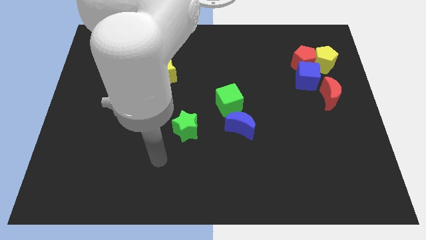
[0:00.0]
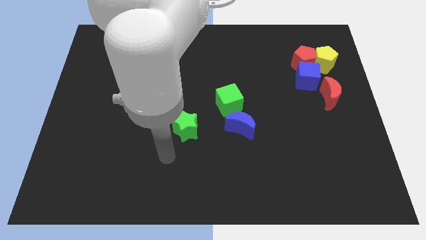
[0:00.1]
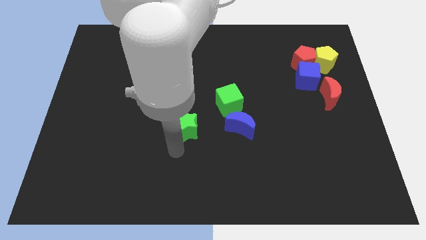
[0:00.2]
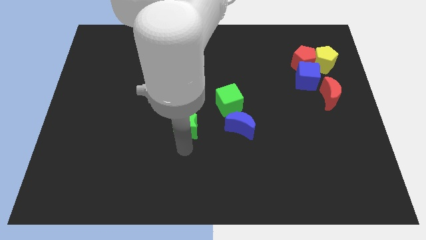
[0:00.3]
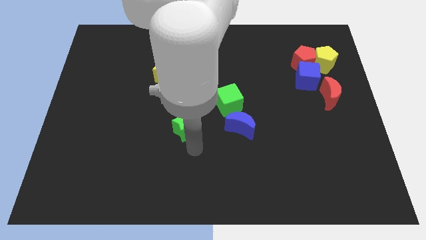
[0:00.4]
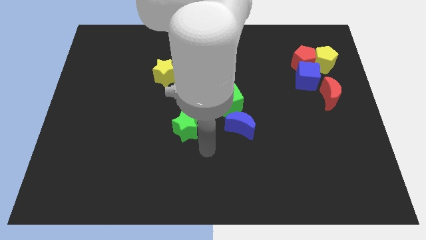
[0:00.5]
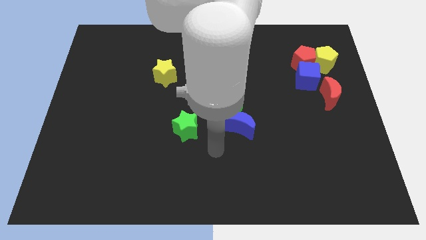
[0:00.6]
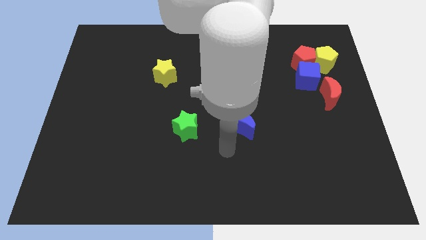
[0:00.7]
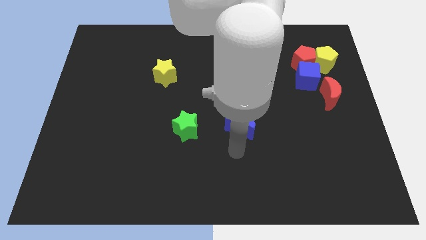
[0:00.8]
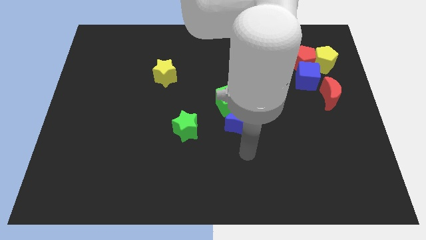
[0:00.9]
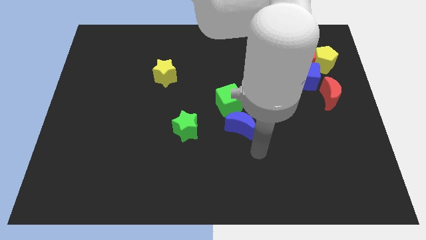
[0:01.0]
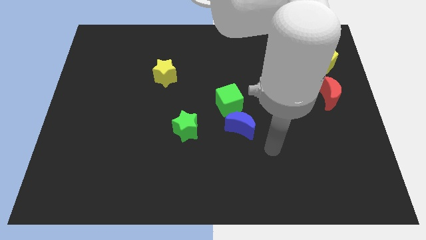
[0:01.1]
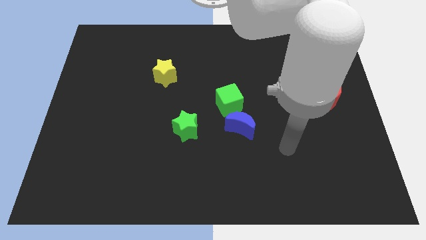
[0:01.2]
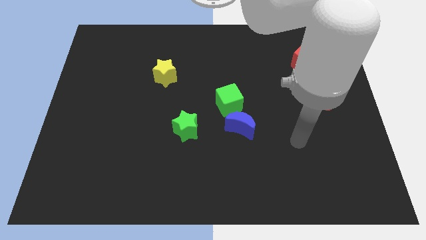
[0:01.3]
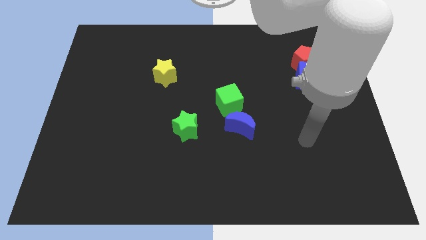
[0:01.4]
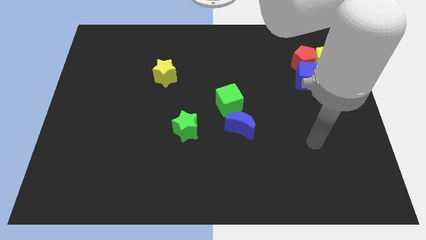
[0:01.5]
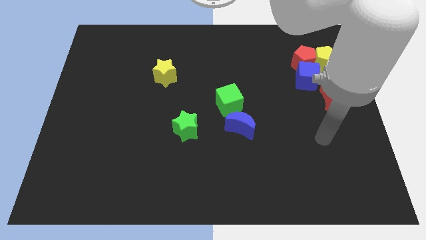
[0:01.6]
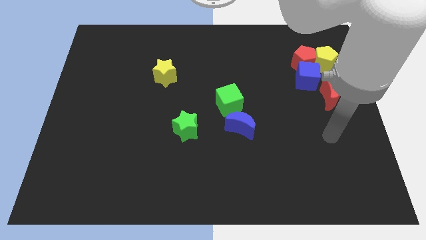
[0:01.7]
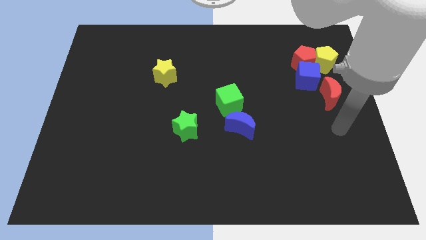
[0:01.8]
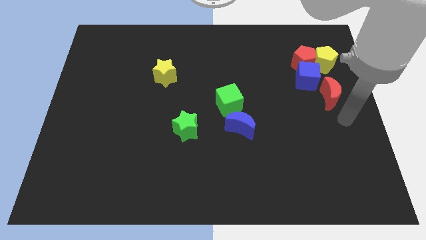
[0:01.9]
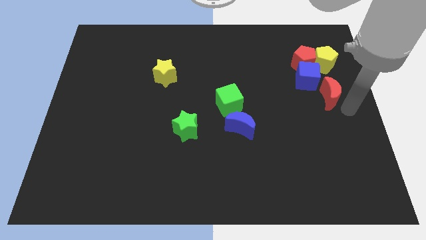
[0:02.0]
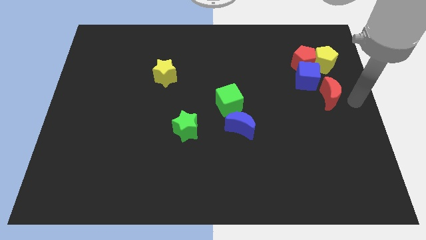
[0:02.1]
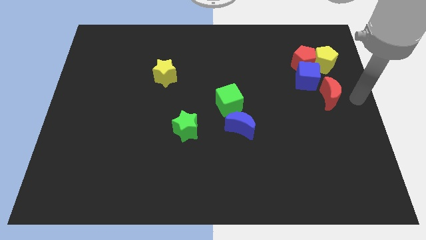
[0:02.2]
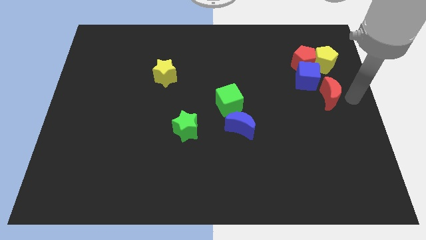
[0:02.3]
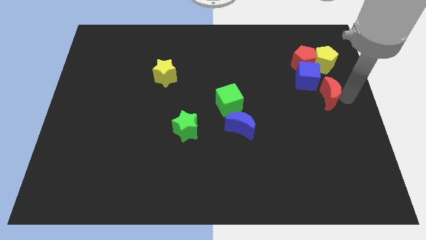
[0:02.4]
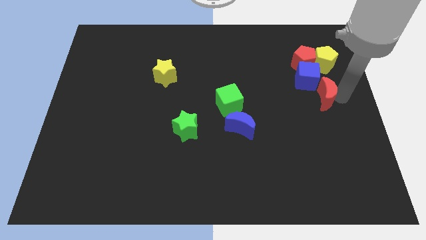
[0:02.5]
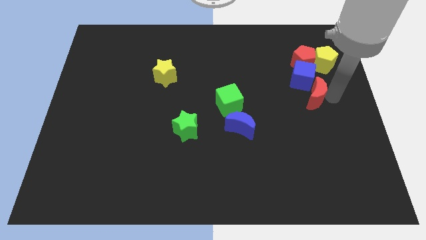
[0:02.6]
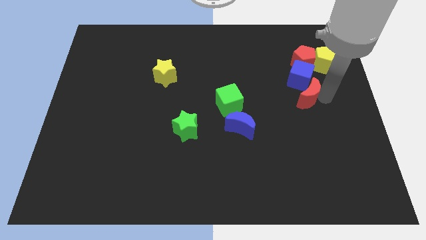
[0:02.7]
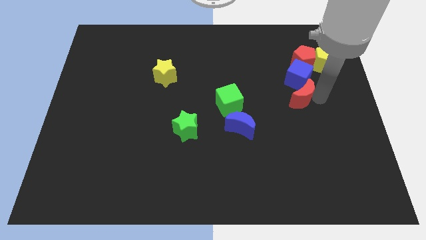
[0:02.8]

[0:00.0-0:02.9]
slightly push the red moon to the left

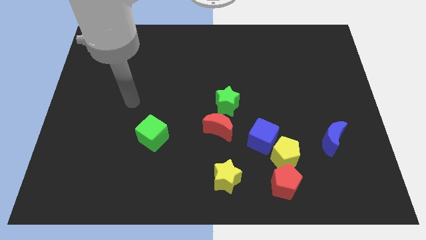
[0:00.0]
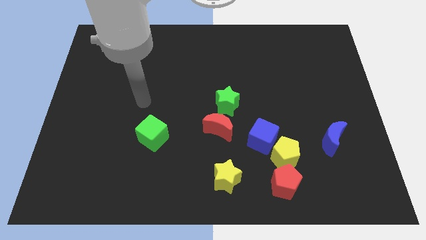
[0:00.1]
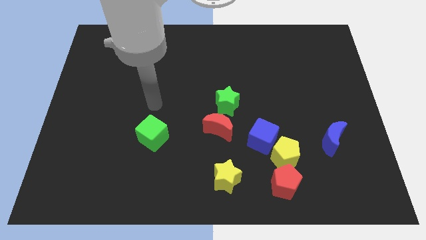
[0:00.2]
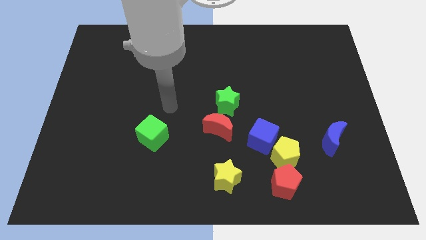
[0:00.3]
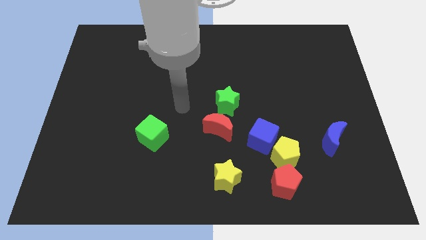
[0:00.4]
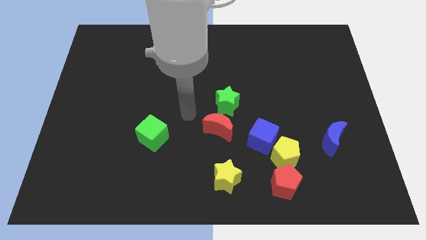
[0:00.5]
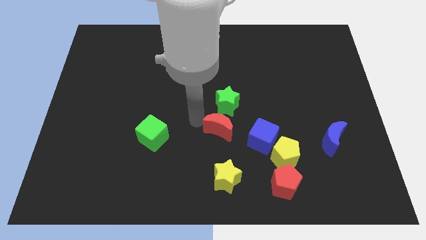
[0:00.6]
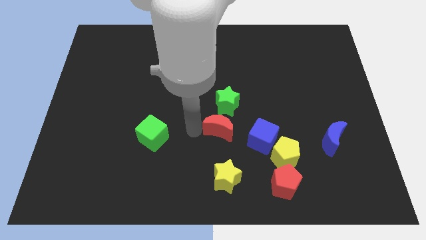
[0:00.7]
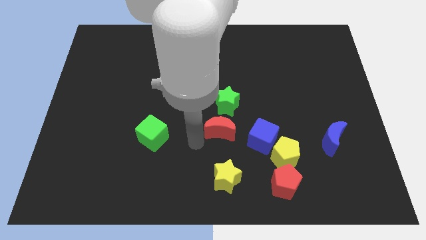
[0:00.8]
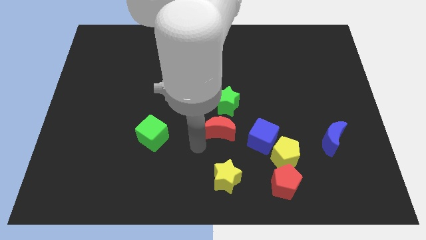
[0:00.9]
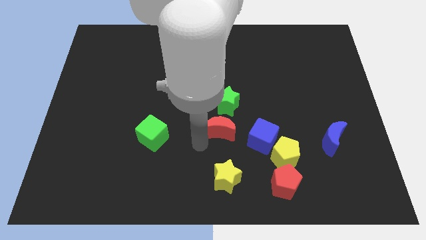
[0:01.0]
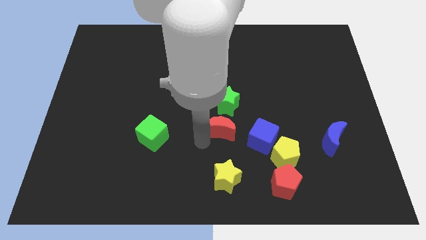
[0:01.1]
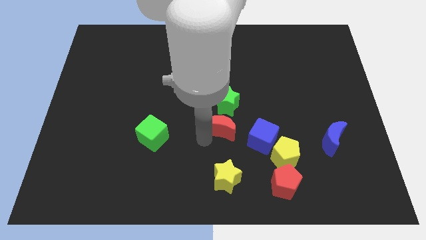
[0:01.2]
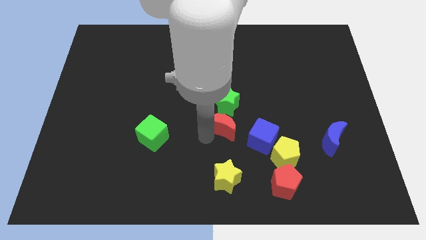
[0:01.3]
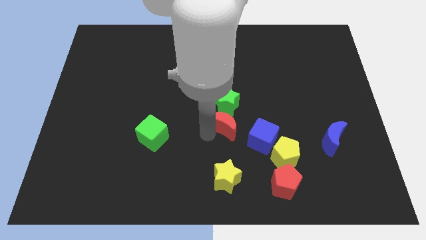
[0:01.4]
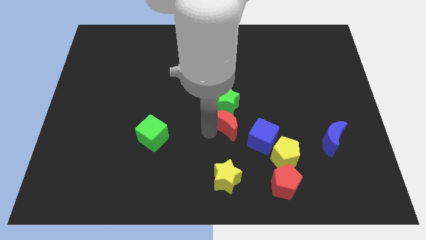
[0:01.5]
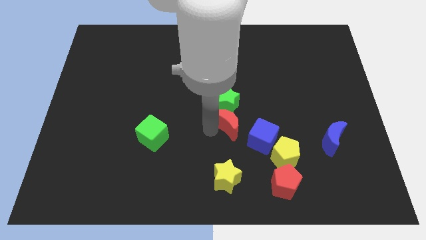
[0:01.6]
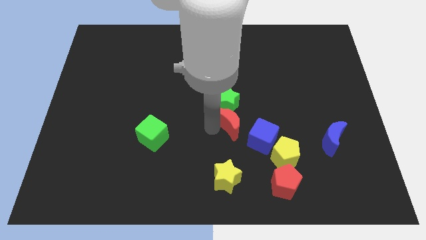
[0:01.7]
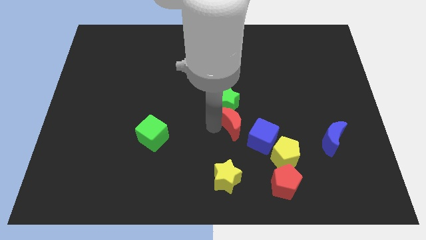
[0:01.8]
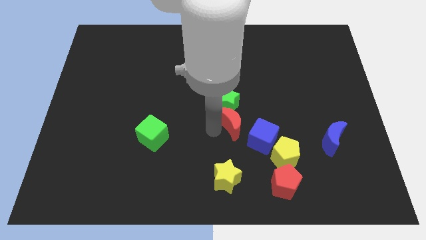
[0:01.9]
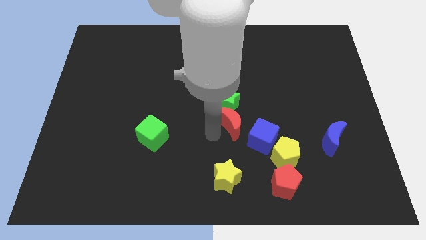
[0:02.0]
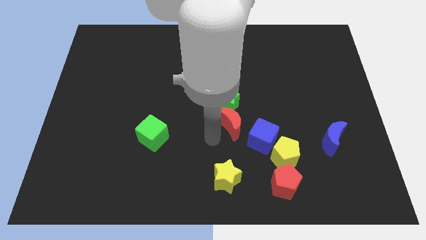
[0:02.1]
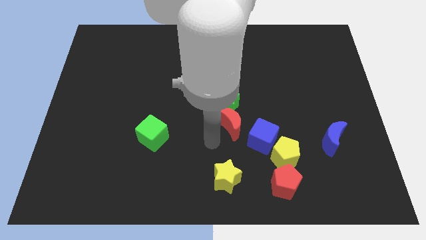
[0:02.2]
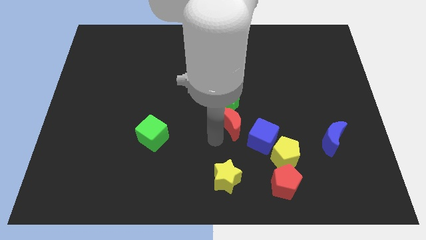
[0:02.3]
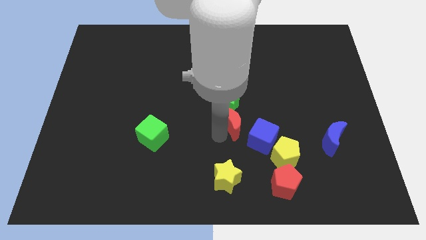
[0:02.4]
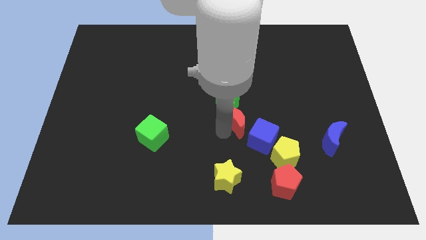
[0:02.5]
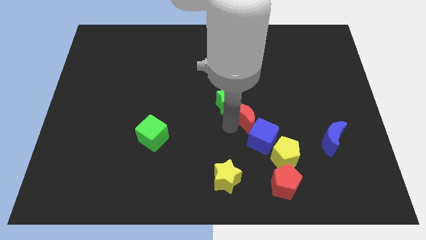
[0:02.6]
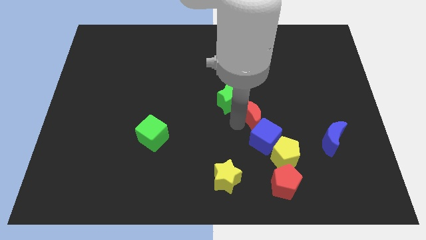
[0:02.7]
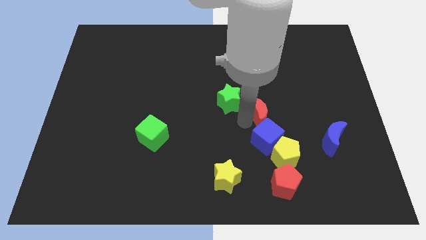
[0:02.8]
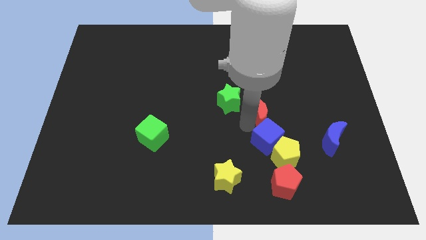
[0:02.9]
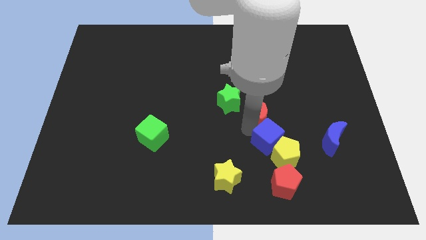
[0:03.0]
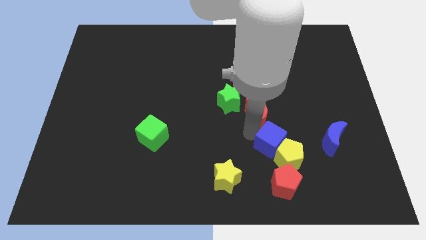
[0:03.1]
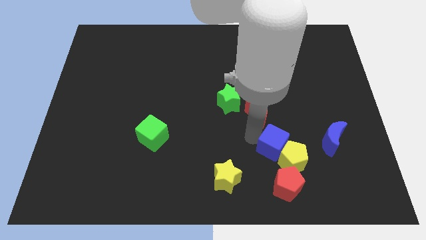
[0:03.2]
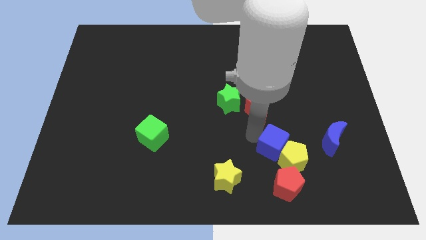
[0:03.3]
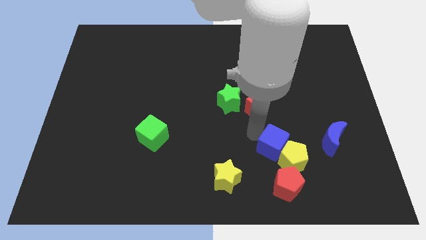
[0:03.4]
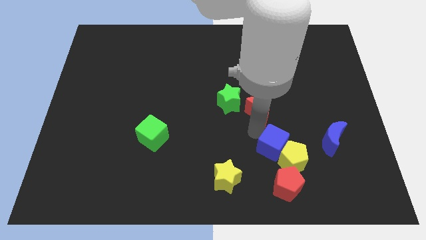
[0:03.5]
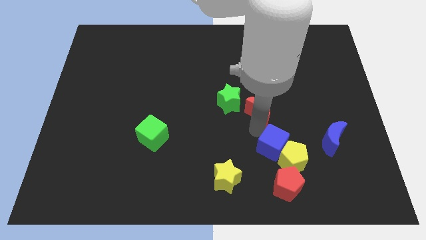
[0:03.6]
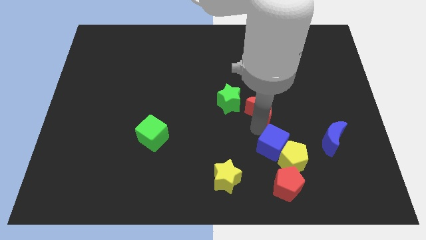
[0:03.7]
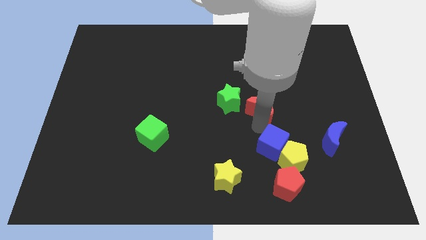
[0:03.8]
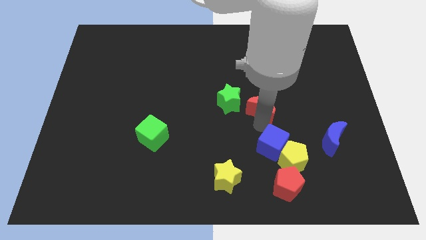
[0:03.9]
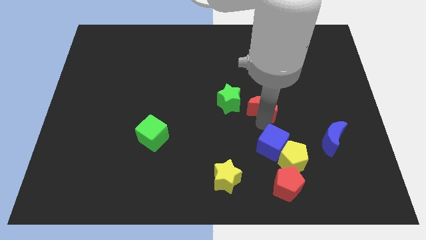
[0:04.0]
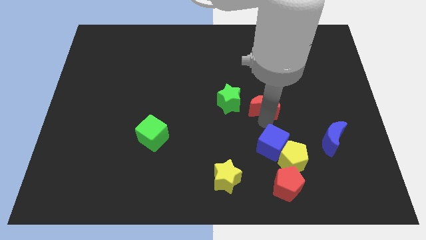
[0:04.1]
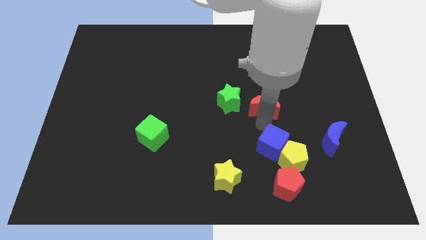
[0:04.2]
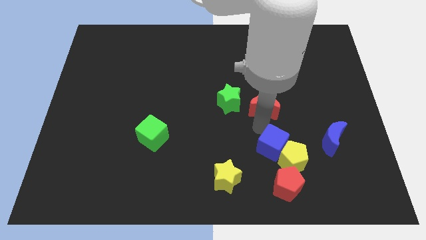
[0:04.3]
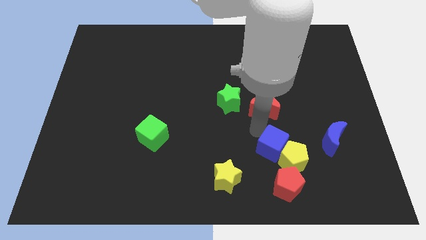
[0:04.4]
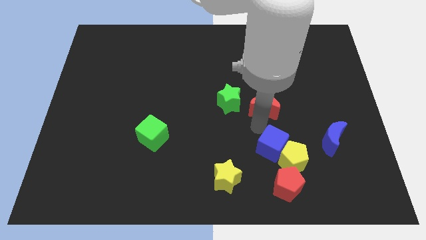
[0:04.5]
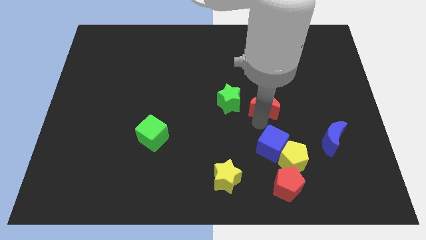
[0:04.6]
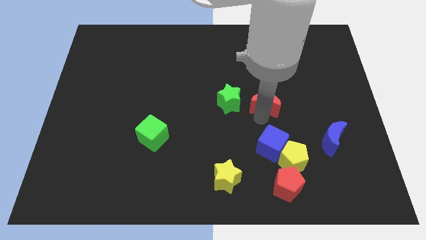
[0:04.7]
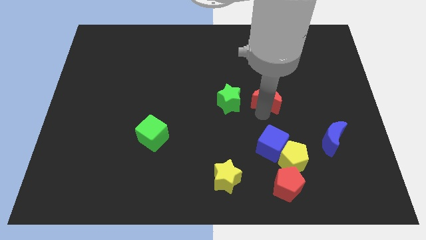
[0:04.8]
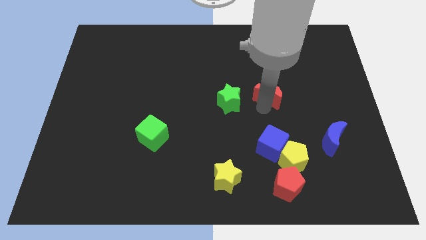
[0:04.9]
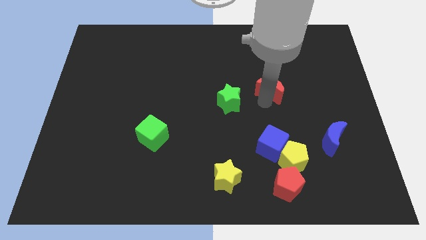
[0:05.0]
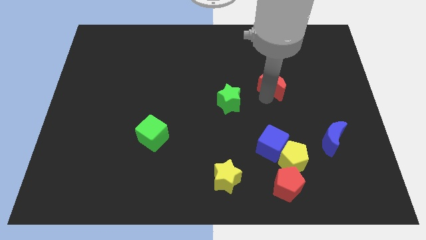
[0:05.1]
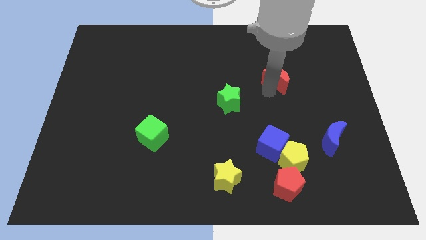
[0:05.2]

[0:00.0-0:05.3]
slide the red moon up and to the right diagonally
